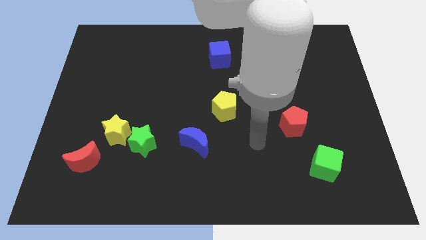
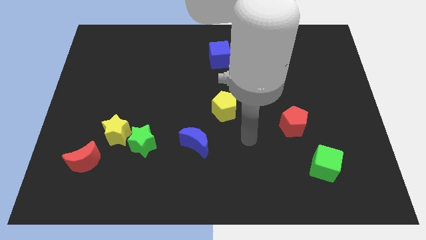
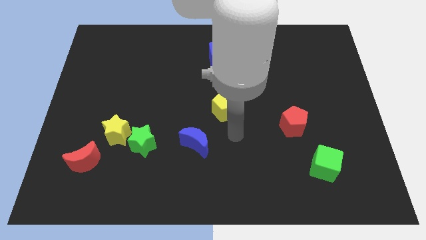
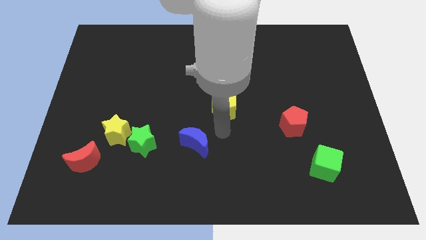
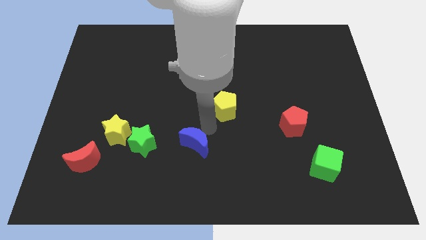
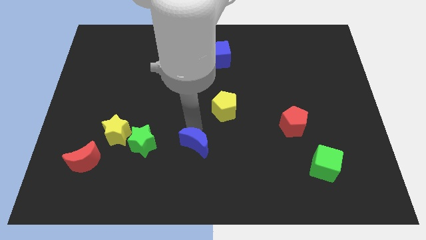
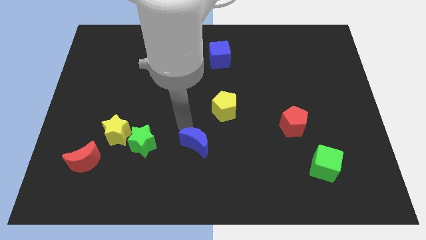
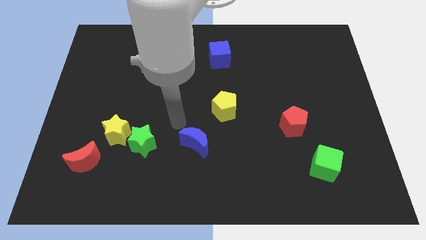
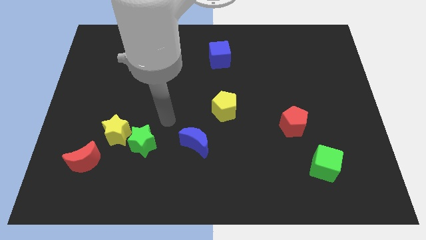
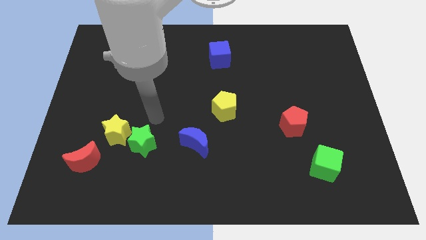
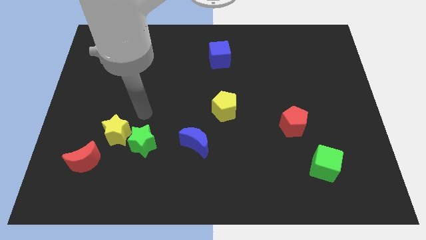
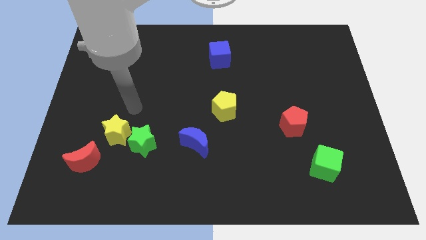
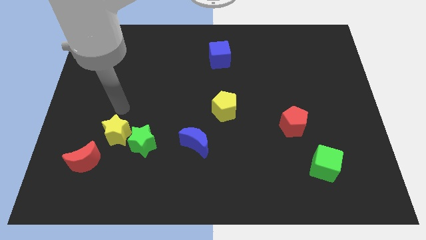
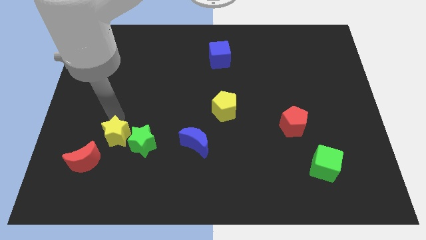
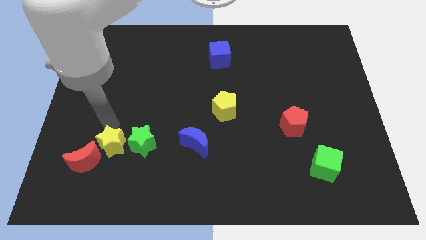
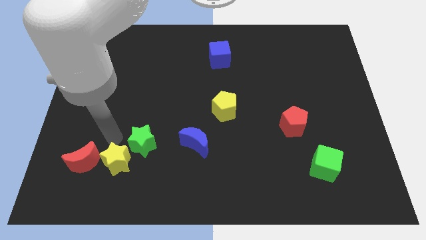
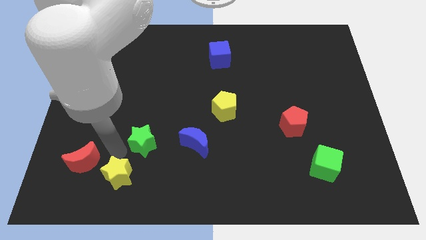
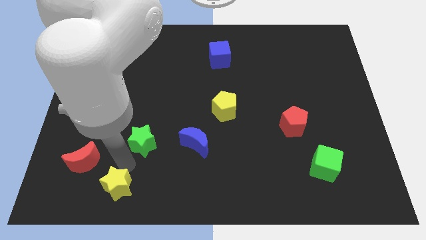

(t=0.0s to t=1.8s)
move the green star away from the yellow star

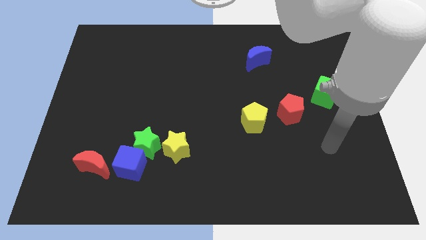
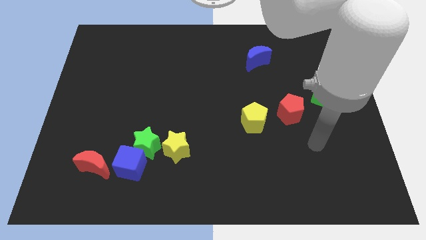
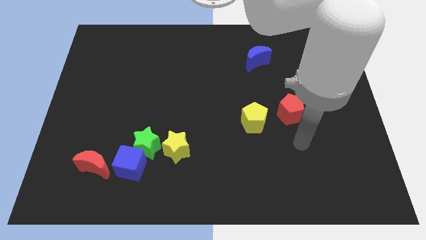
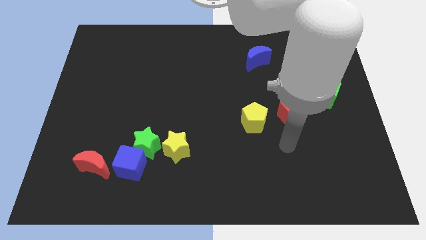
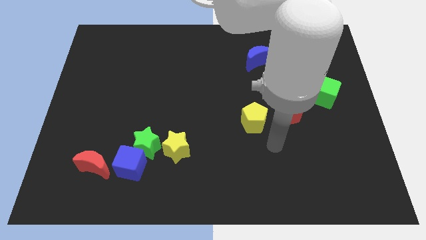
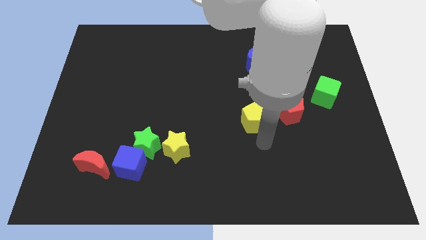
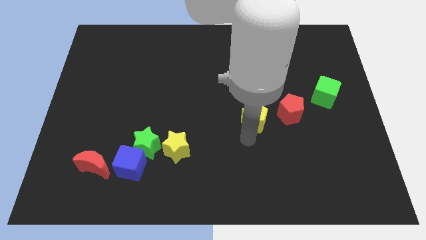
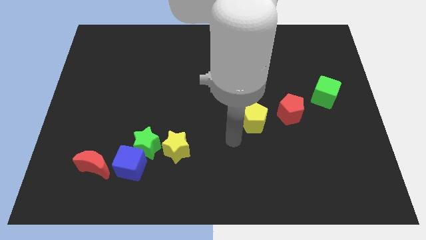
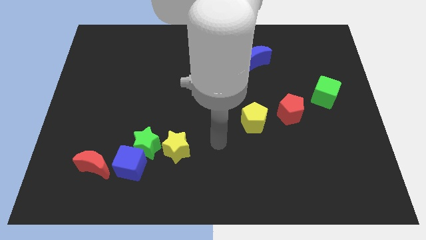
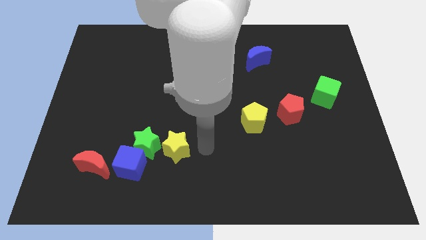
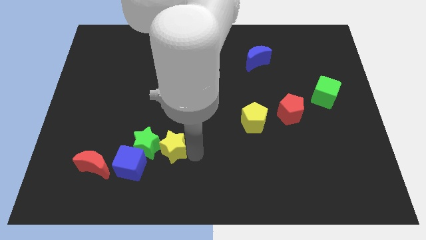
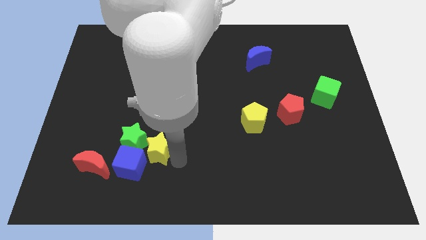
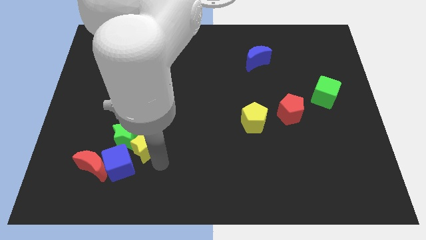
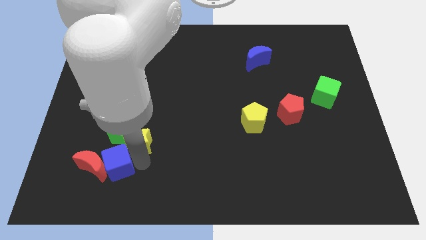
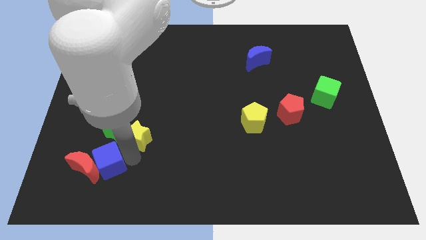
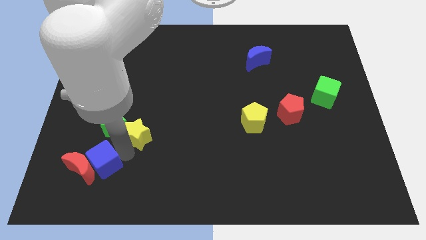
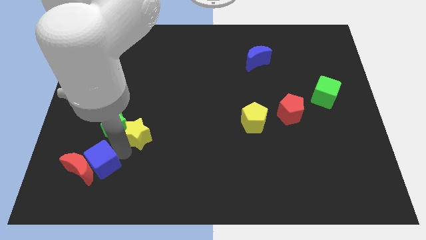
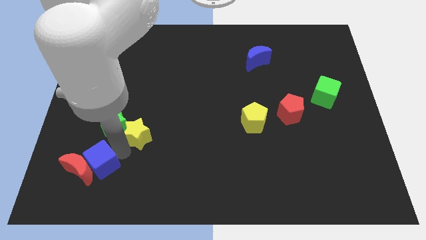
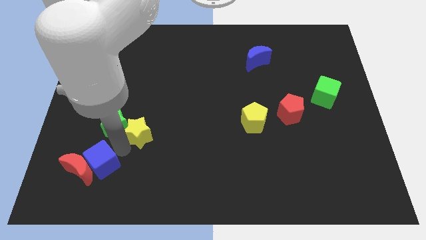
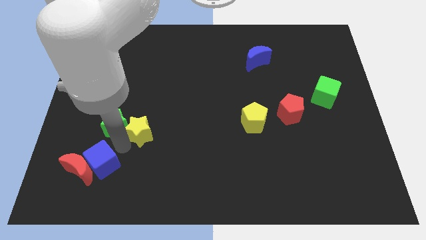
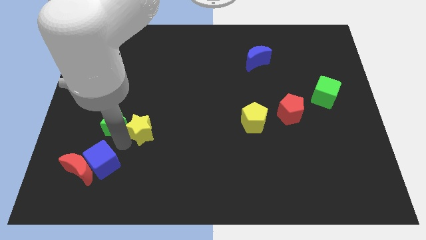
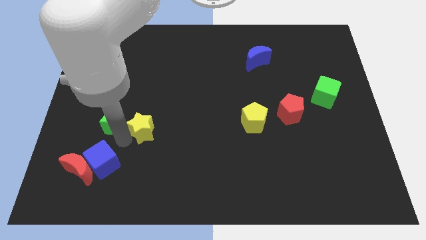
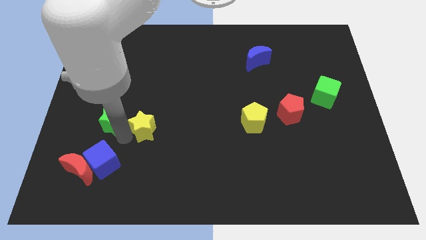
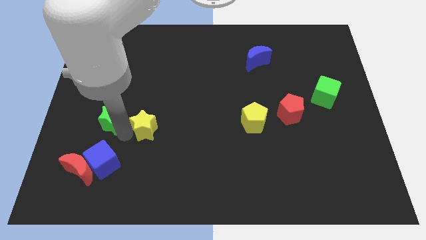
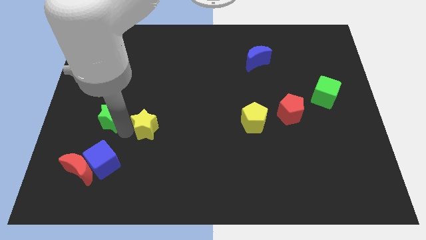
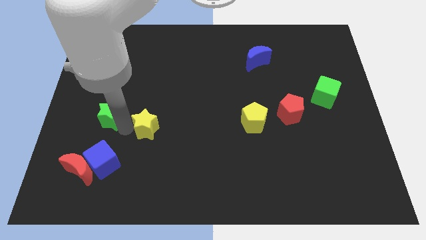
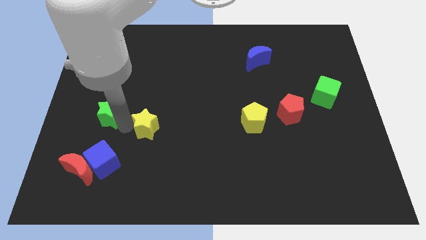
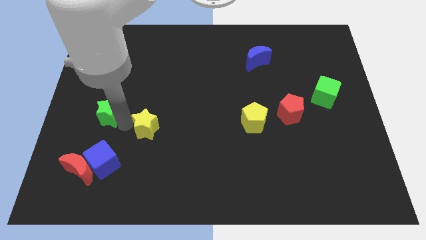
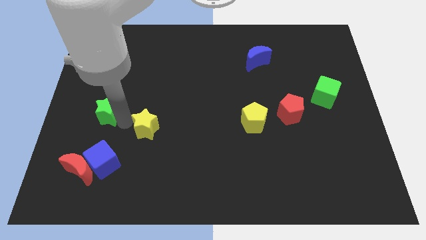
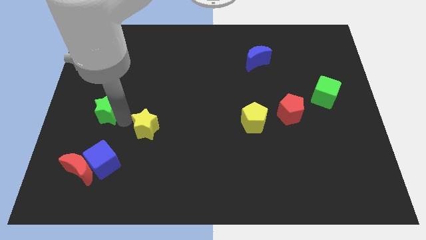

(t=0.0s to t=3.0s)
move the green star away from the blue cube and yellow star

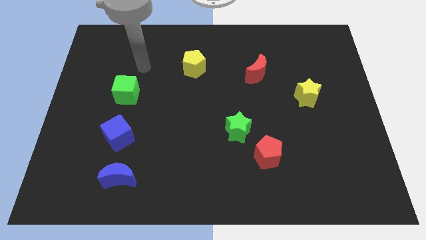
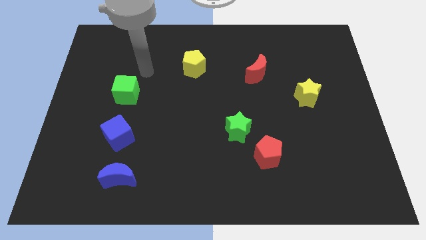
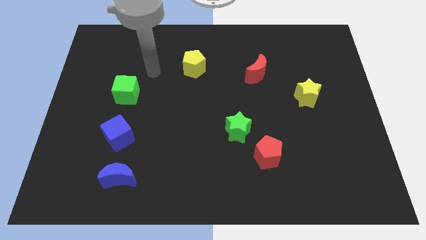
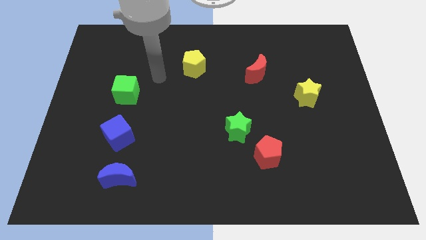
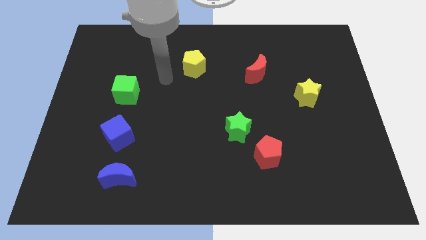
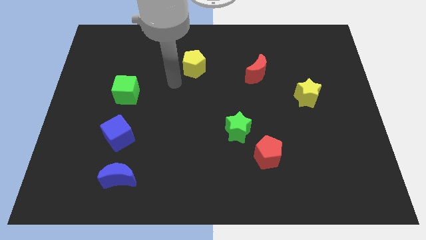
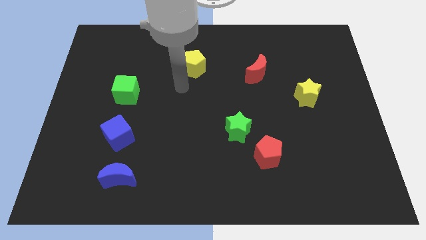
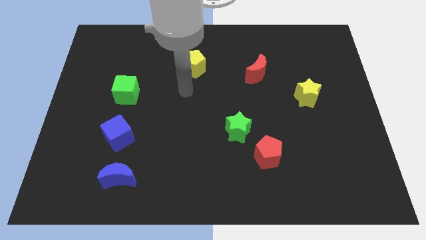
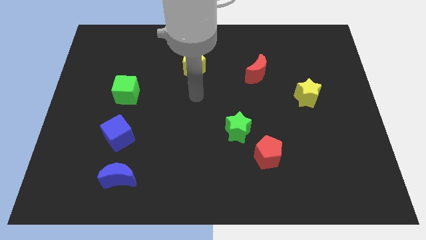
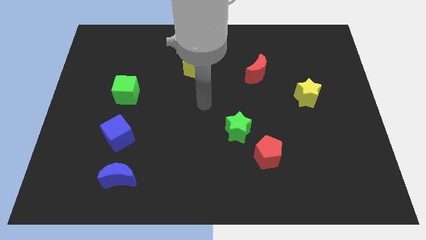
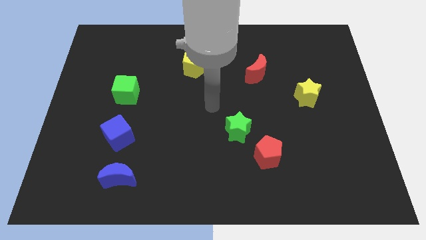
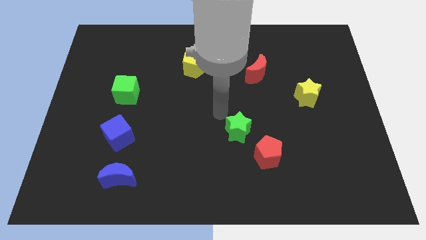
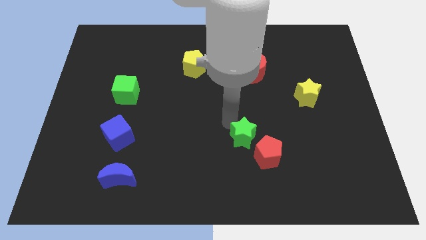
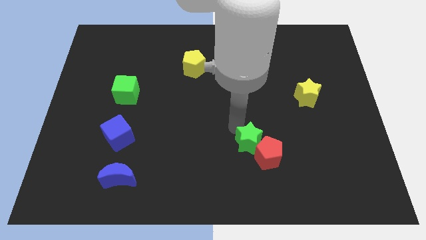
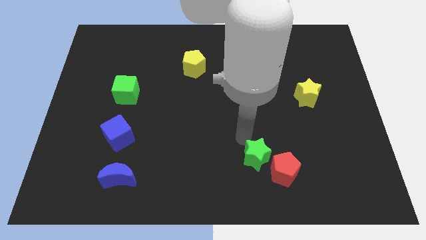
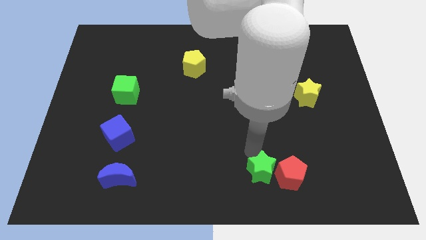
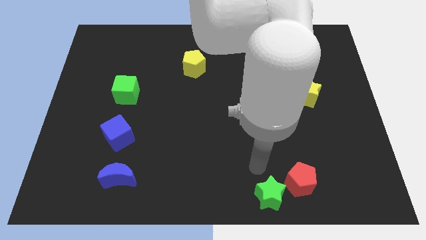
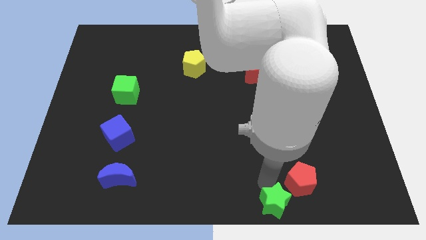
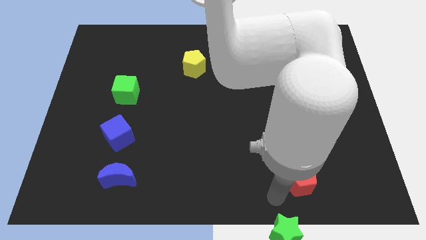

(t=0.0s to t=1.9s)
move the red pentagon away from the green star

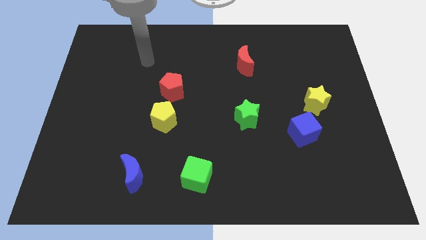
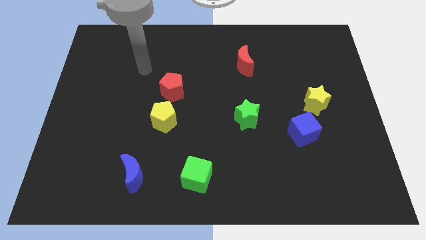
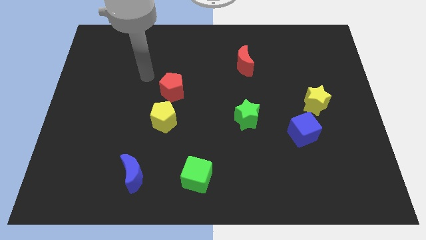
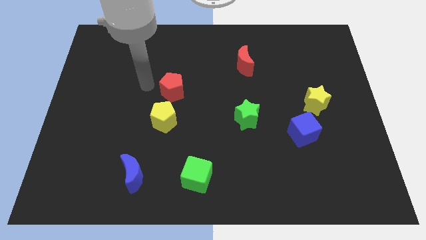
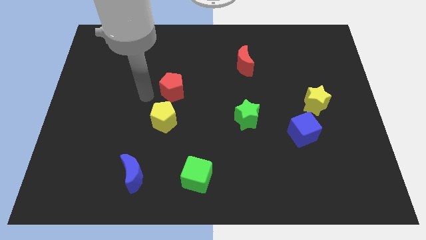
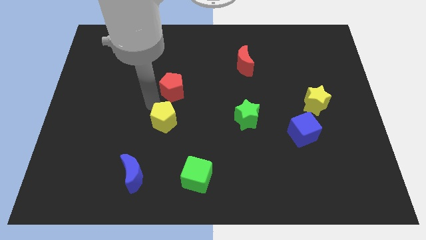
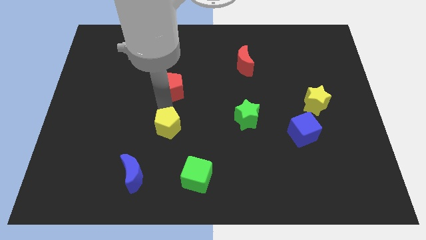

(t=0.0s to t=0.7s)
pull the red pentagon apart from the yellow pentagon

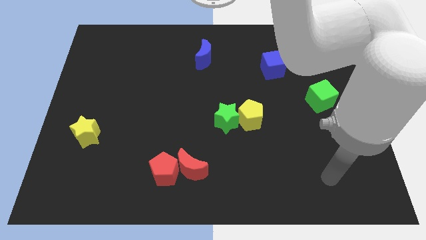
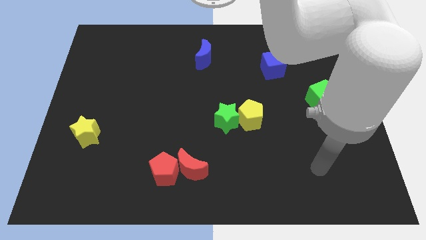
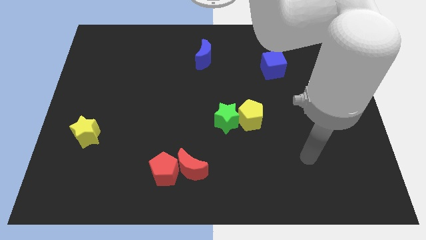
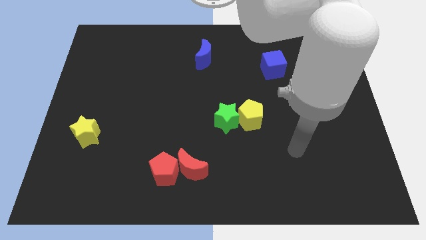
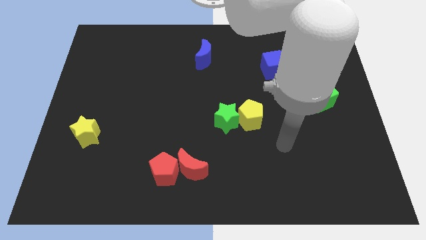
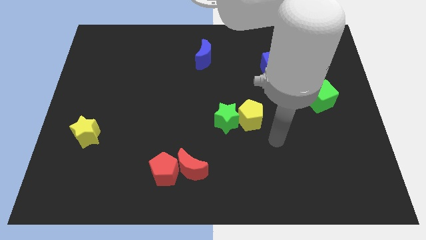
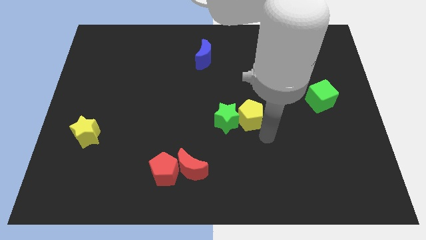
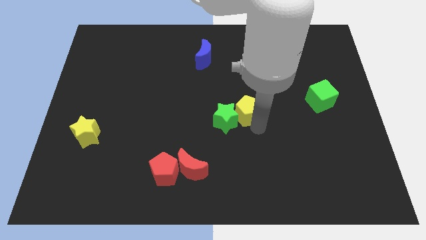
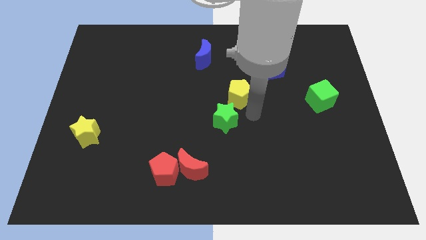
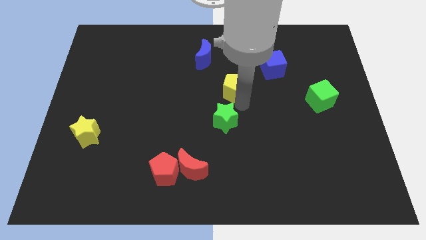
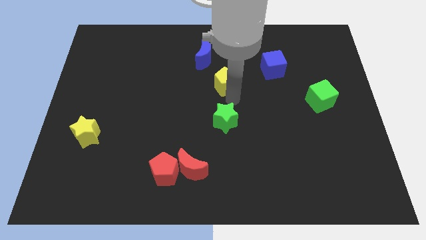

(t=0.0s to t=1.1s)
move the green star away from the yellow pentagon

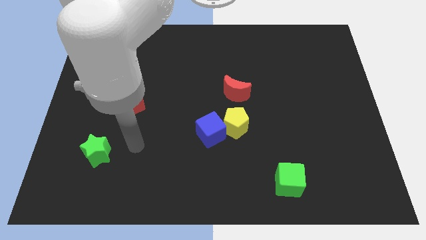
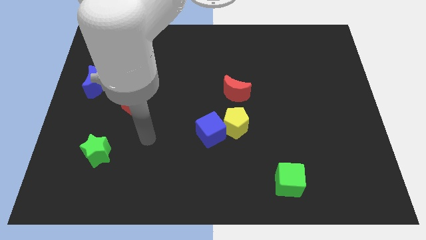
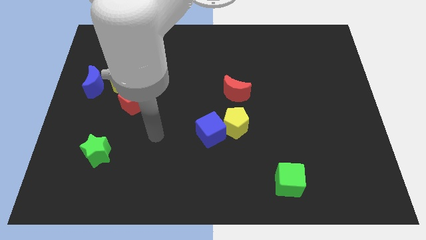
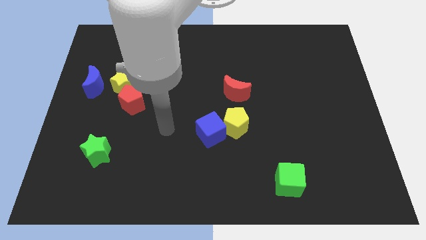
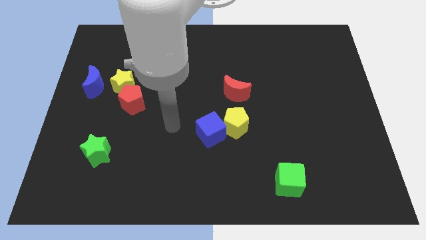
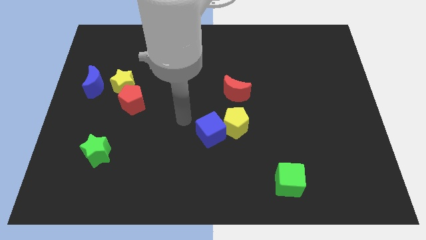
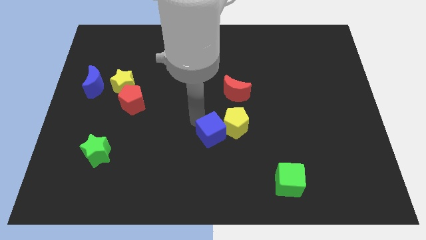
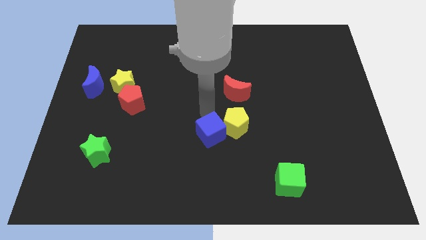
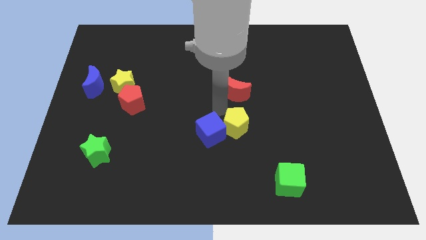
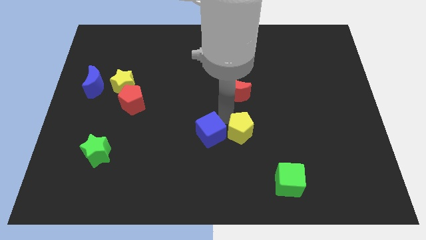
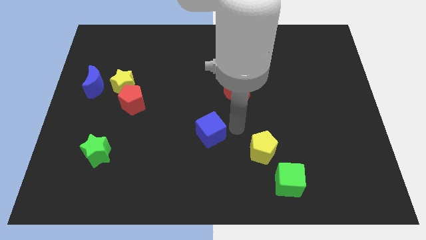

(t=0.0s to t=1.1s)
move the blue cube away from the yellow pentagon
